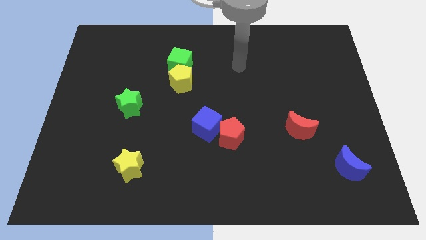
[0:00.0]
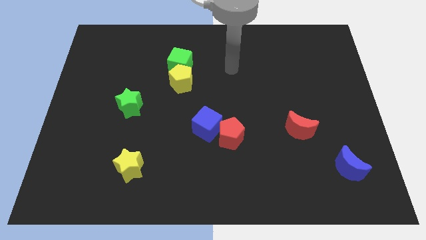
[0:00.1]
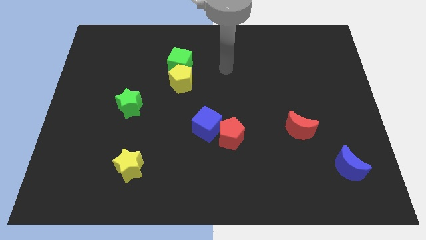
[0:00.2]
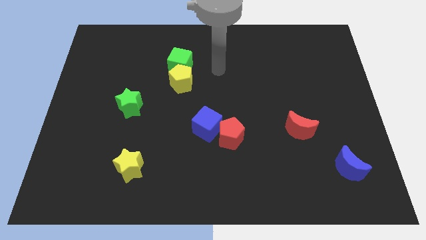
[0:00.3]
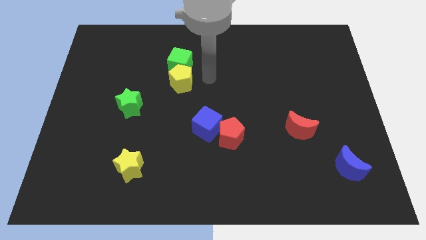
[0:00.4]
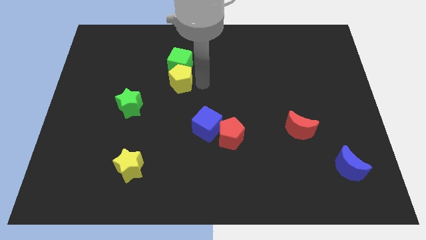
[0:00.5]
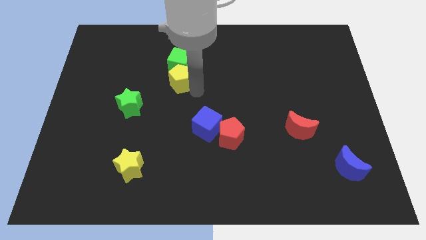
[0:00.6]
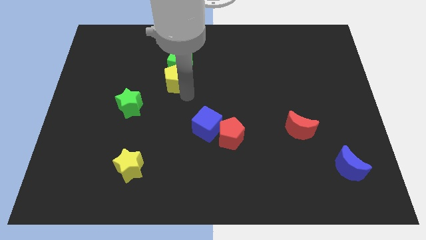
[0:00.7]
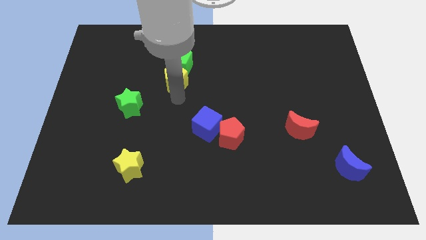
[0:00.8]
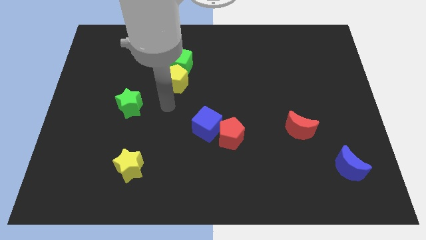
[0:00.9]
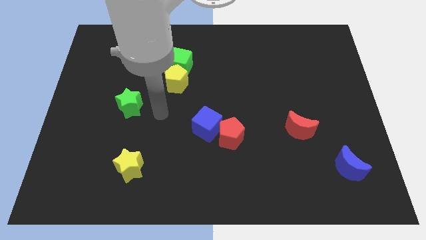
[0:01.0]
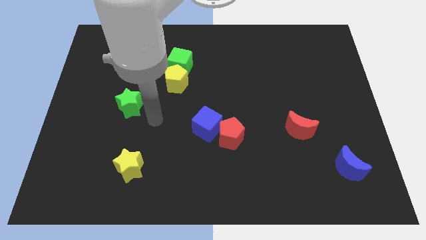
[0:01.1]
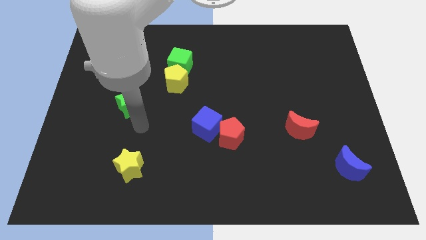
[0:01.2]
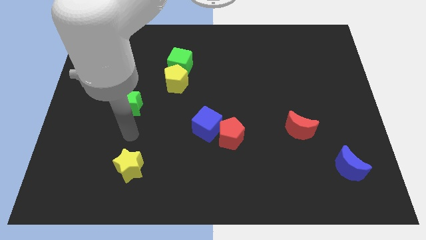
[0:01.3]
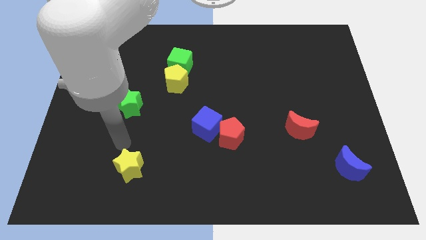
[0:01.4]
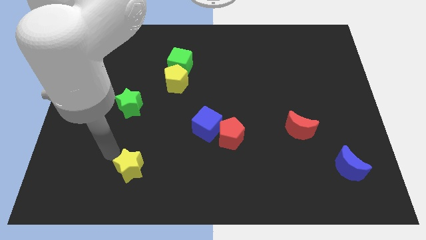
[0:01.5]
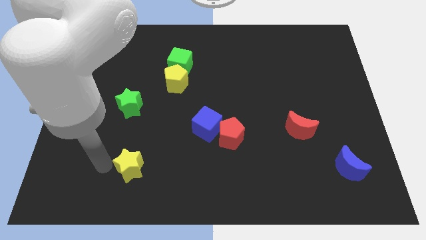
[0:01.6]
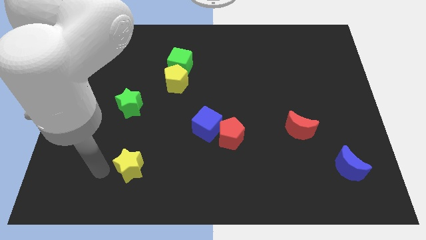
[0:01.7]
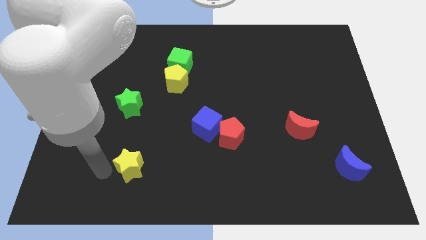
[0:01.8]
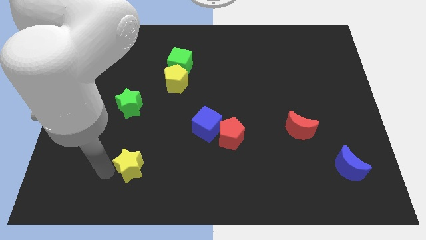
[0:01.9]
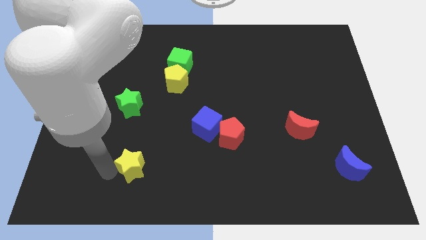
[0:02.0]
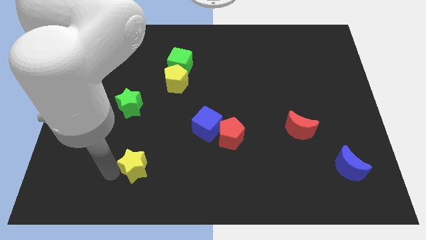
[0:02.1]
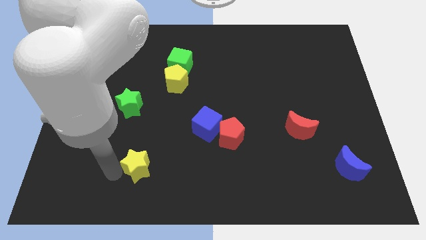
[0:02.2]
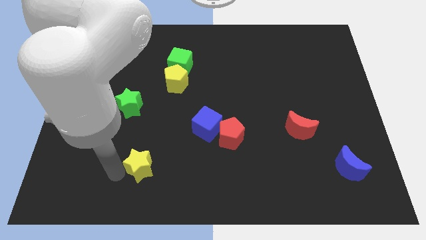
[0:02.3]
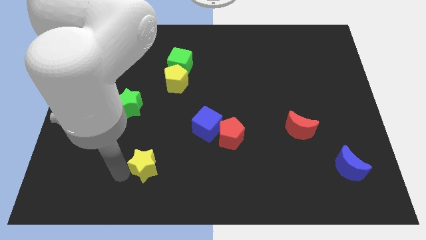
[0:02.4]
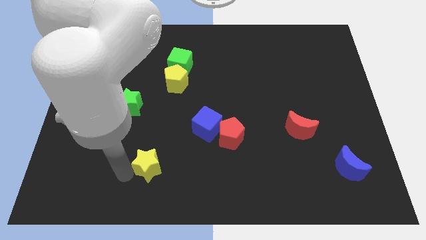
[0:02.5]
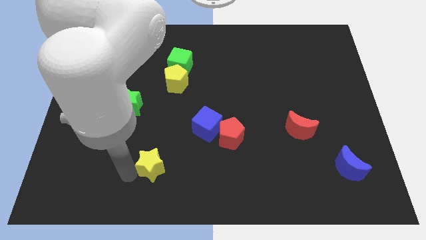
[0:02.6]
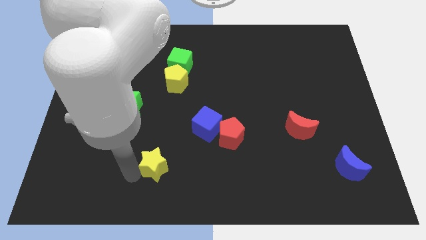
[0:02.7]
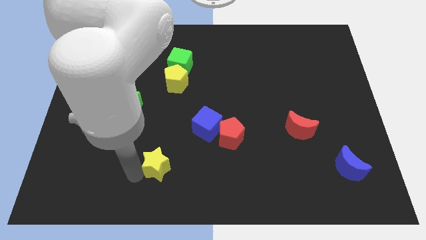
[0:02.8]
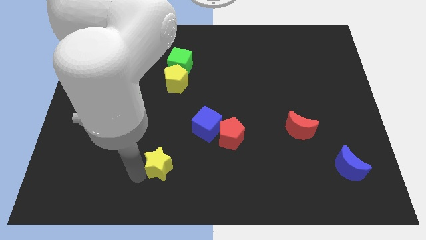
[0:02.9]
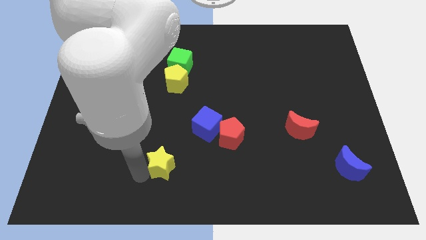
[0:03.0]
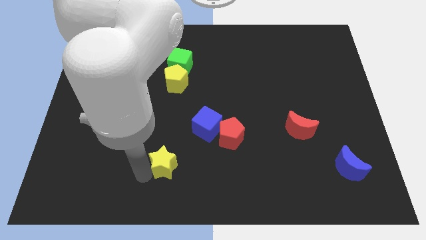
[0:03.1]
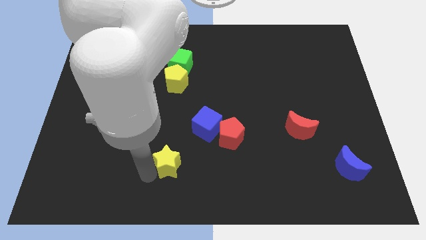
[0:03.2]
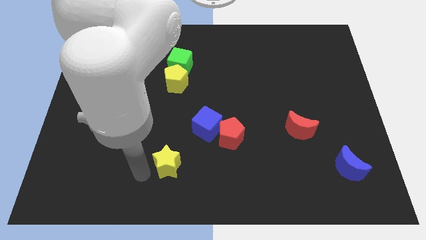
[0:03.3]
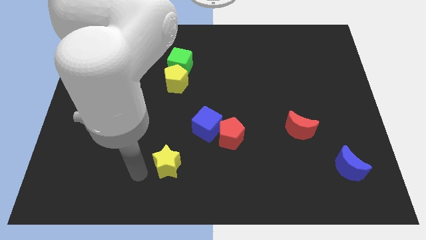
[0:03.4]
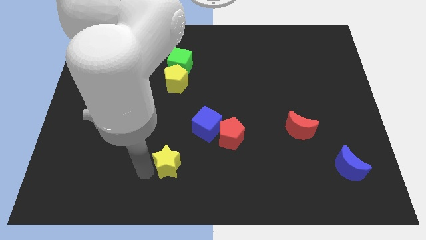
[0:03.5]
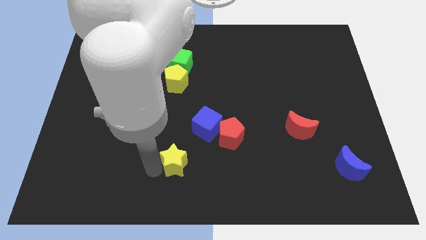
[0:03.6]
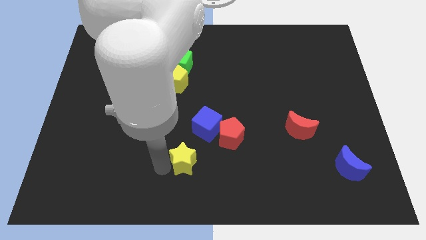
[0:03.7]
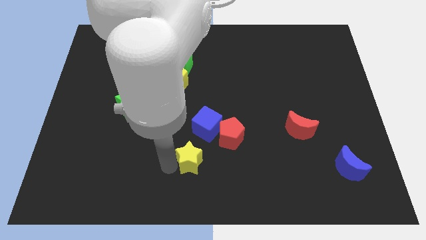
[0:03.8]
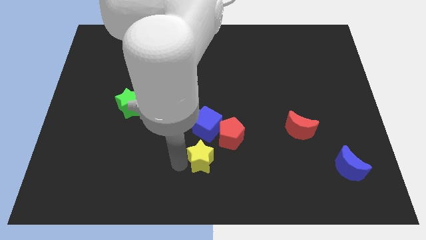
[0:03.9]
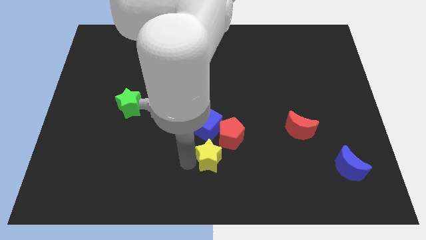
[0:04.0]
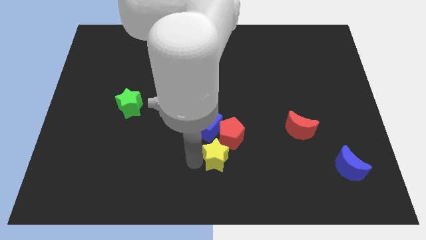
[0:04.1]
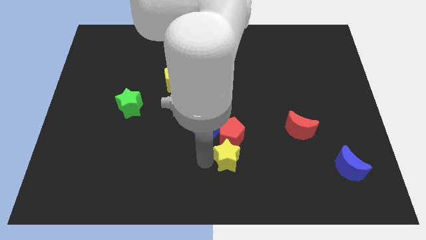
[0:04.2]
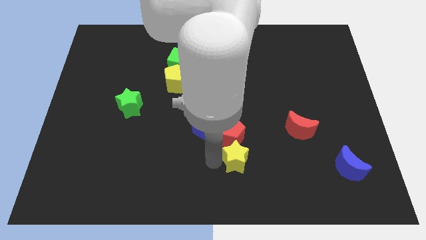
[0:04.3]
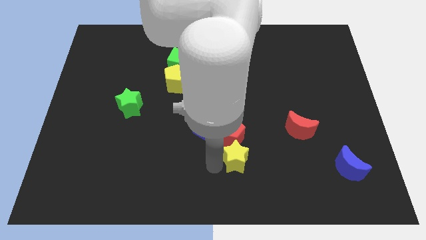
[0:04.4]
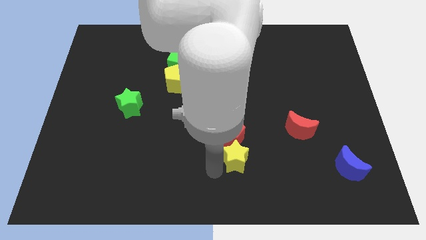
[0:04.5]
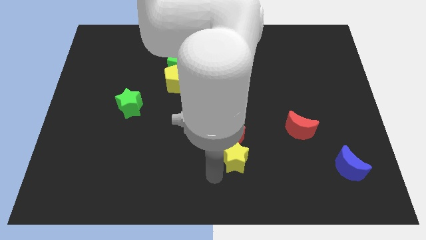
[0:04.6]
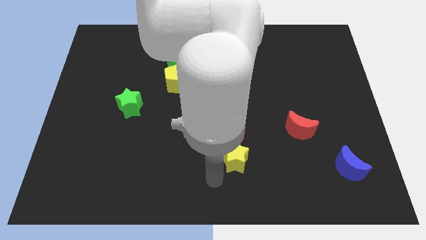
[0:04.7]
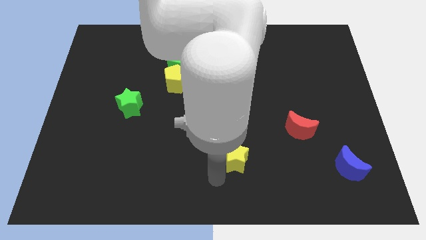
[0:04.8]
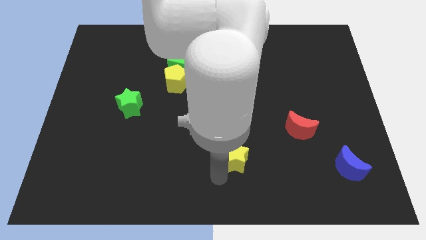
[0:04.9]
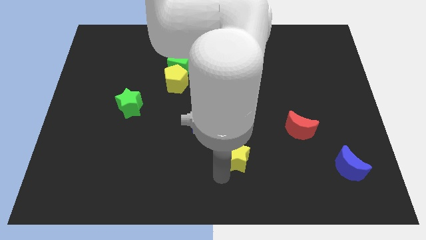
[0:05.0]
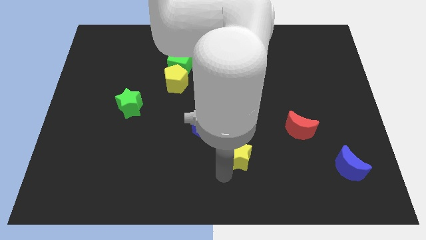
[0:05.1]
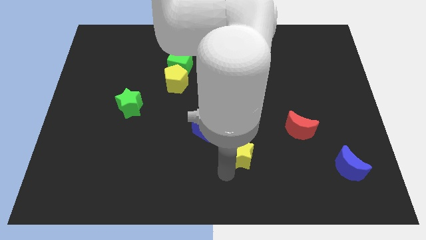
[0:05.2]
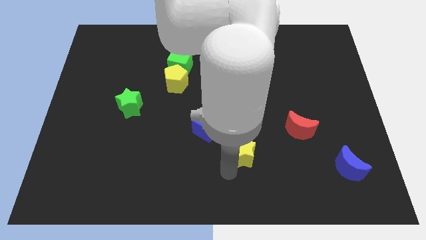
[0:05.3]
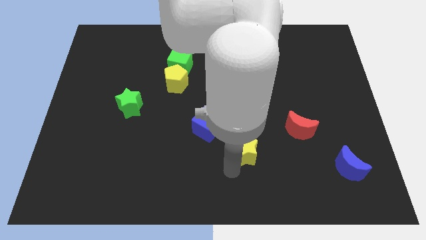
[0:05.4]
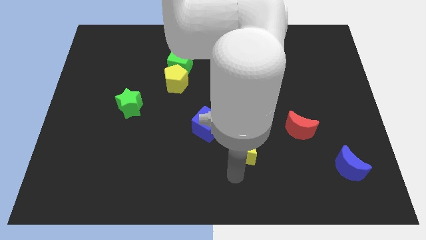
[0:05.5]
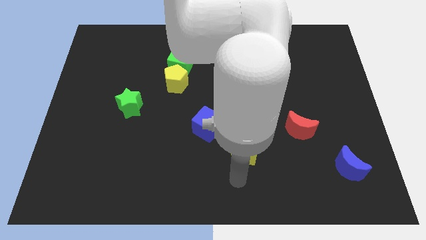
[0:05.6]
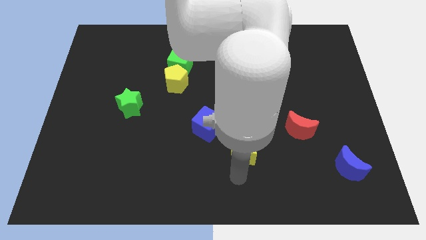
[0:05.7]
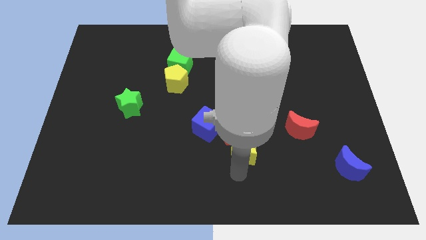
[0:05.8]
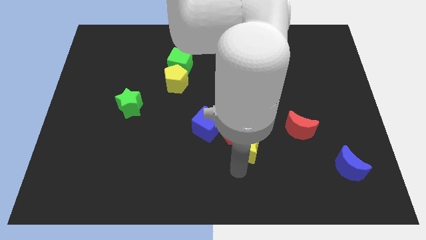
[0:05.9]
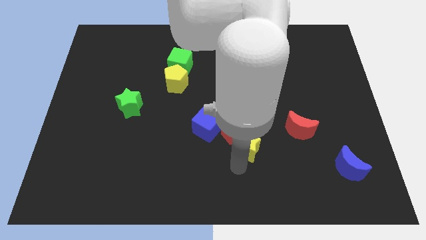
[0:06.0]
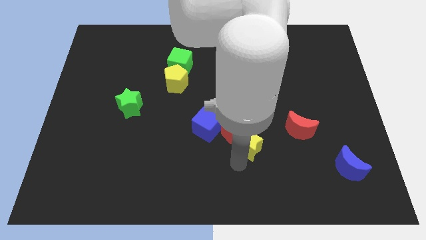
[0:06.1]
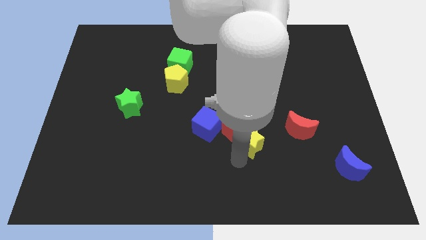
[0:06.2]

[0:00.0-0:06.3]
put the yellow star to the right side of the blue cube

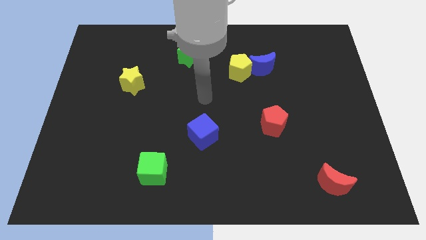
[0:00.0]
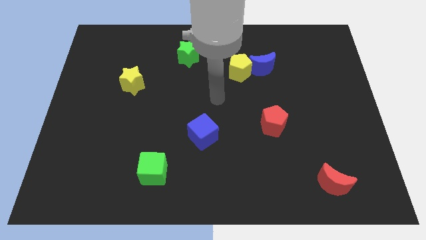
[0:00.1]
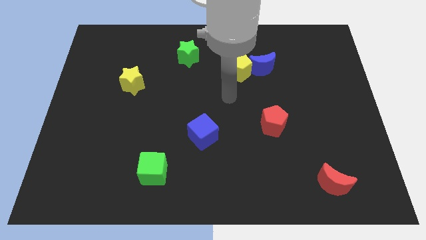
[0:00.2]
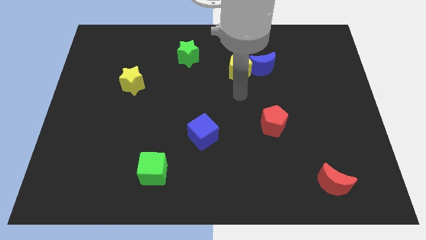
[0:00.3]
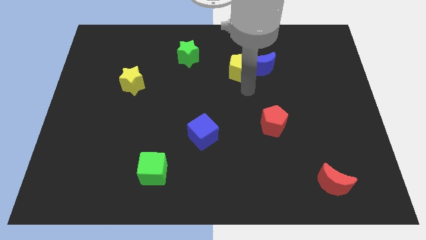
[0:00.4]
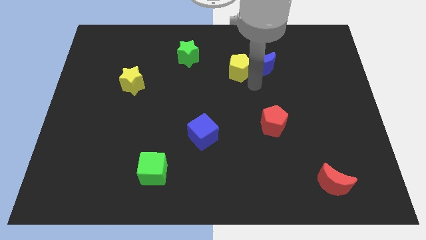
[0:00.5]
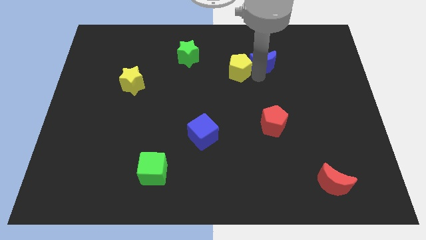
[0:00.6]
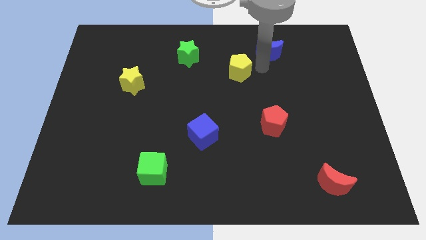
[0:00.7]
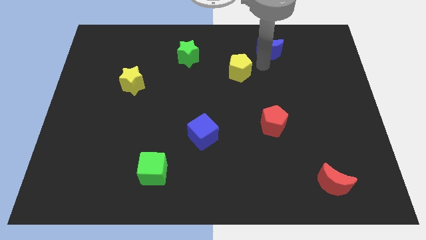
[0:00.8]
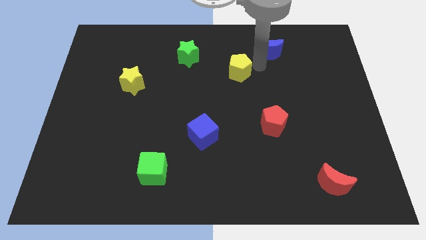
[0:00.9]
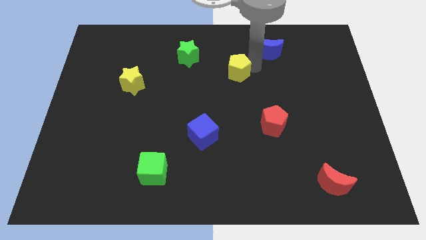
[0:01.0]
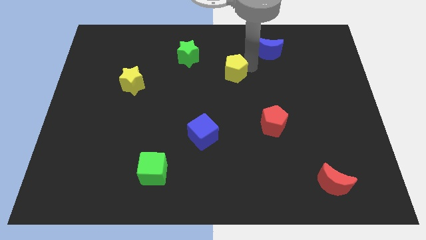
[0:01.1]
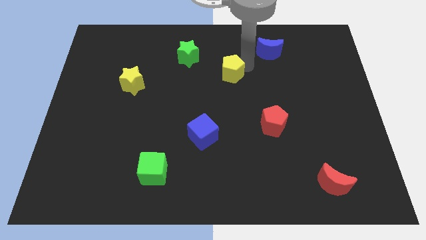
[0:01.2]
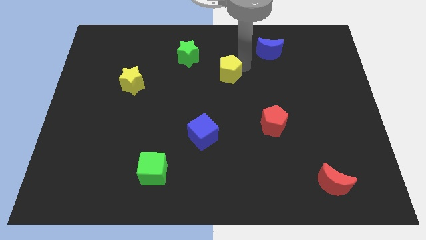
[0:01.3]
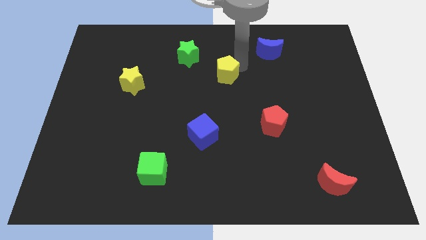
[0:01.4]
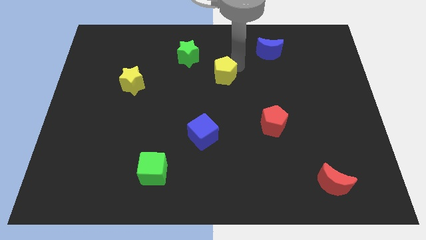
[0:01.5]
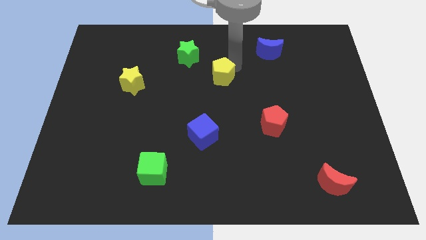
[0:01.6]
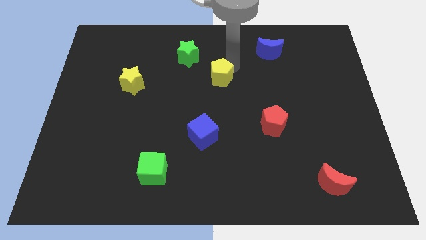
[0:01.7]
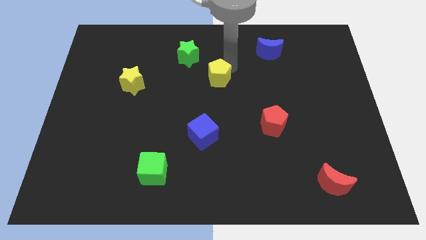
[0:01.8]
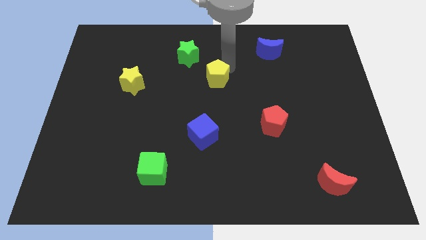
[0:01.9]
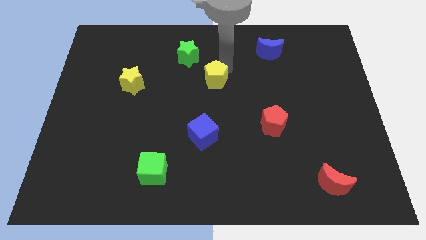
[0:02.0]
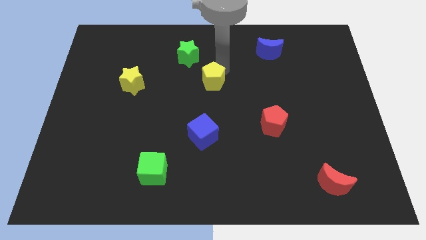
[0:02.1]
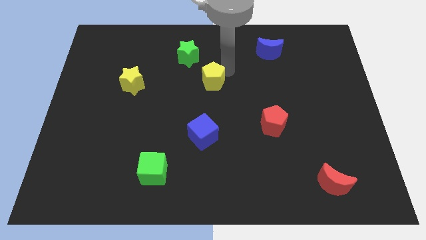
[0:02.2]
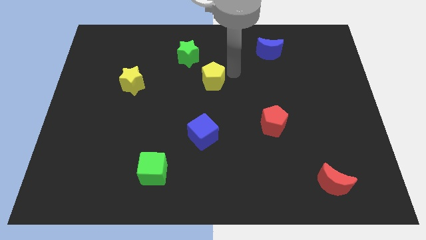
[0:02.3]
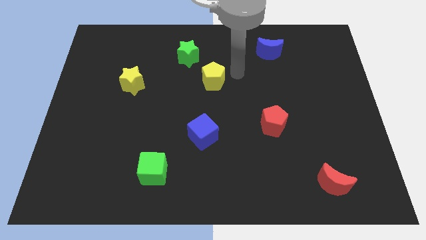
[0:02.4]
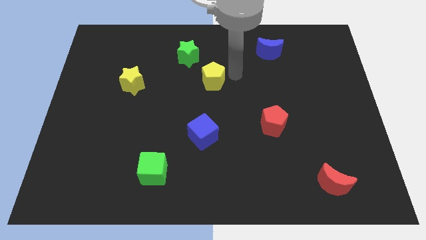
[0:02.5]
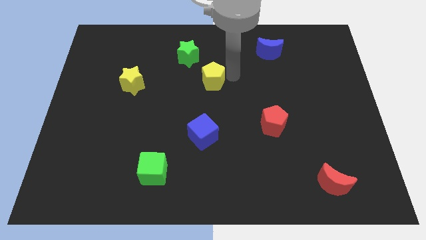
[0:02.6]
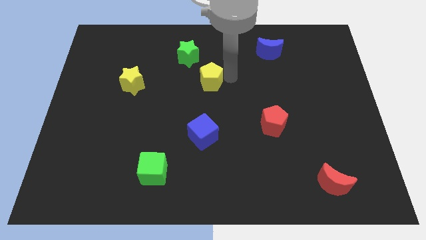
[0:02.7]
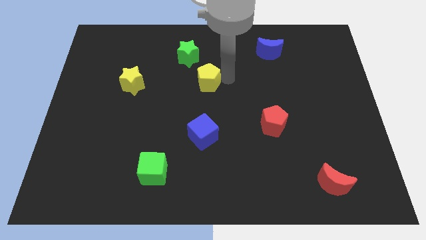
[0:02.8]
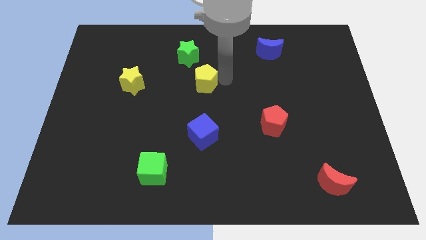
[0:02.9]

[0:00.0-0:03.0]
push the yellow pentagon below the green star
